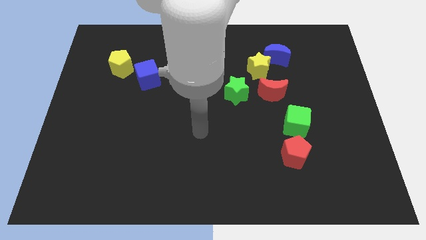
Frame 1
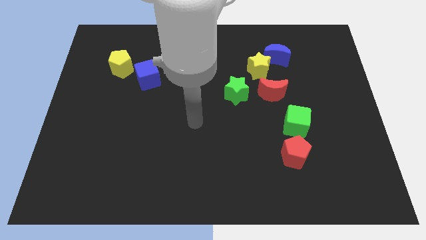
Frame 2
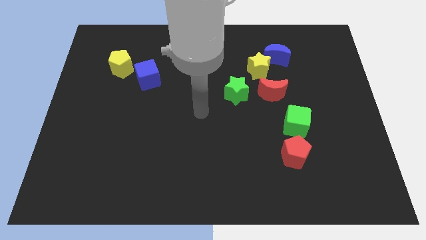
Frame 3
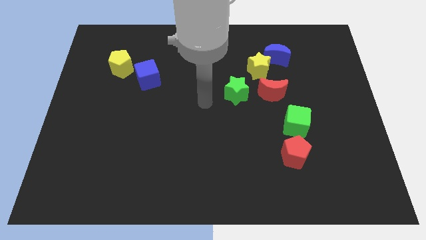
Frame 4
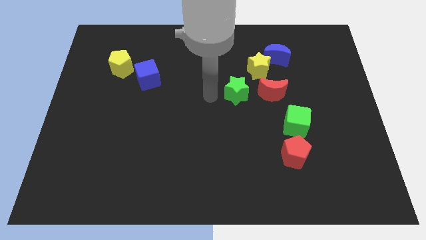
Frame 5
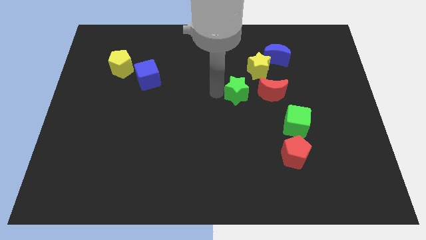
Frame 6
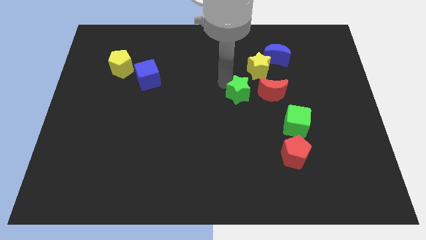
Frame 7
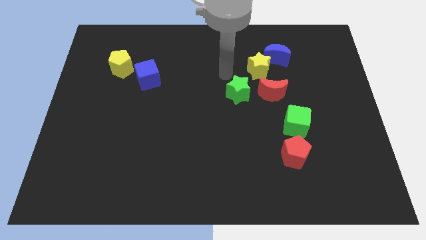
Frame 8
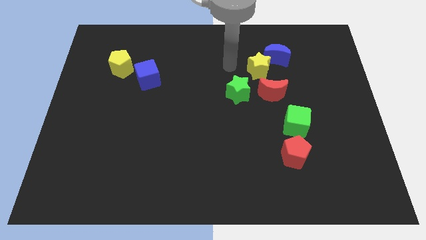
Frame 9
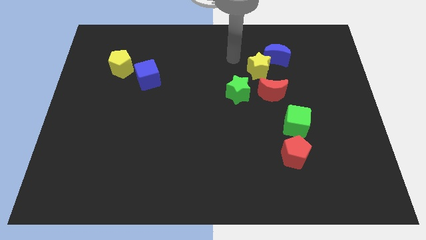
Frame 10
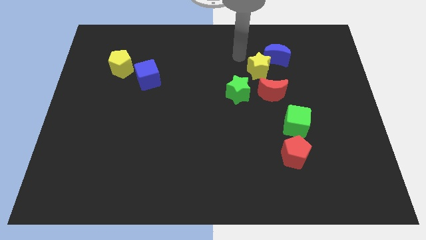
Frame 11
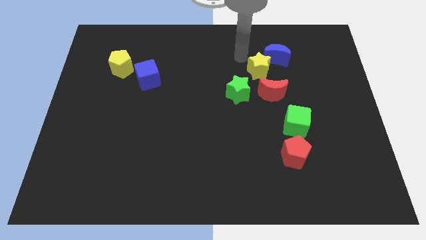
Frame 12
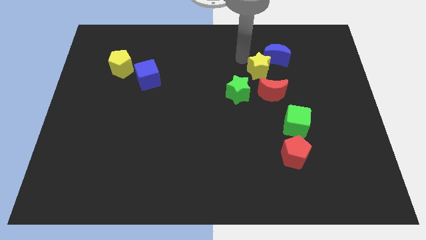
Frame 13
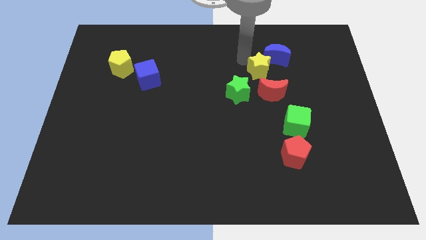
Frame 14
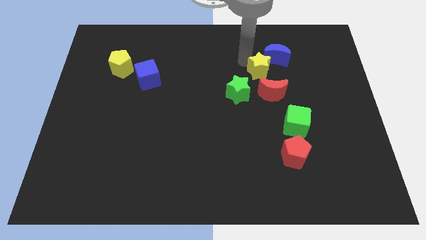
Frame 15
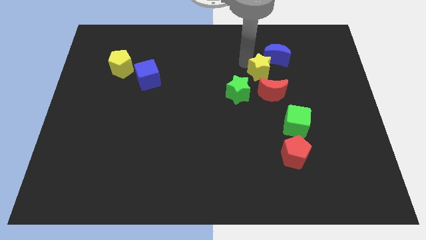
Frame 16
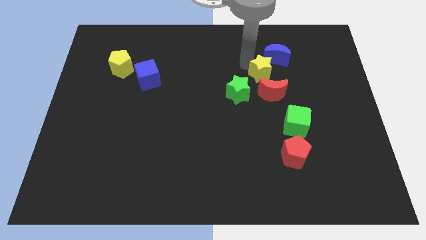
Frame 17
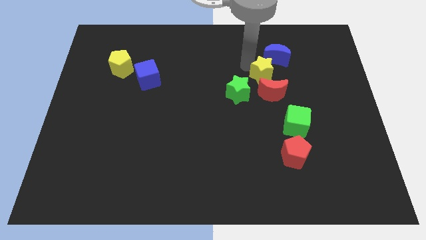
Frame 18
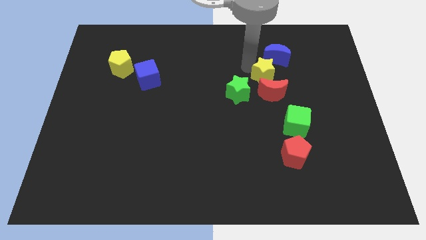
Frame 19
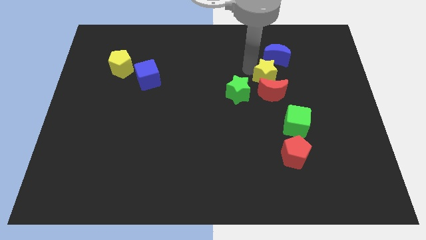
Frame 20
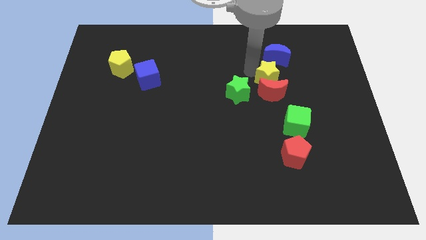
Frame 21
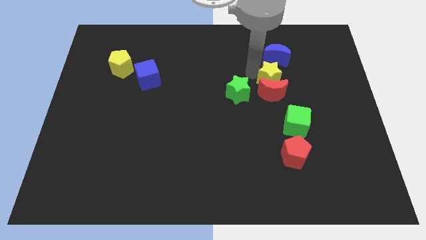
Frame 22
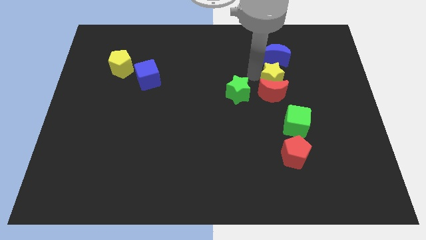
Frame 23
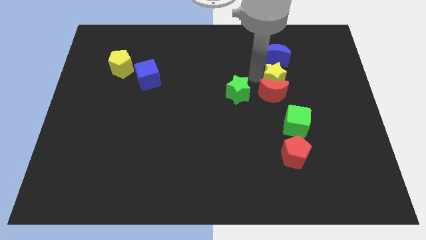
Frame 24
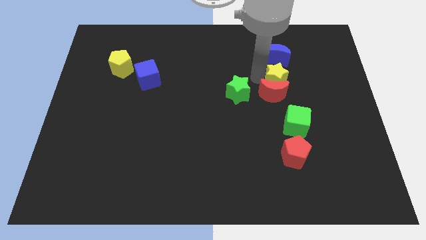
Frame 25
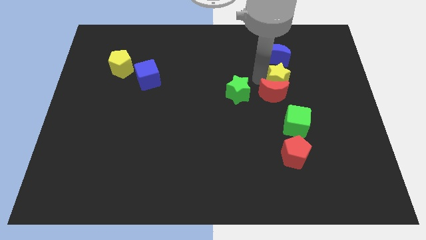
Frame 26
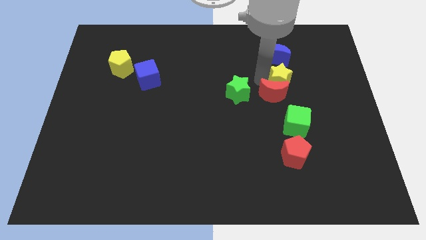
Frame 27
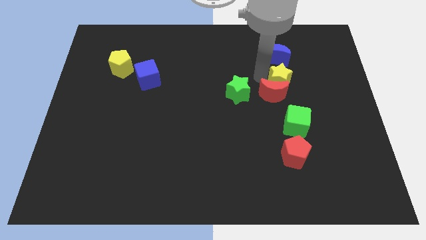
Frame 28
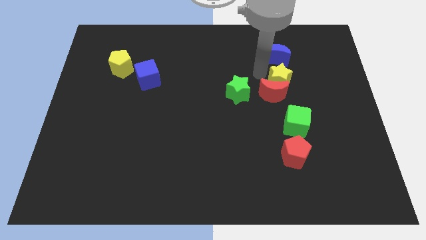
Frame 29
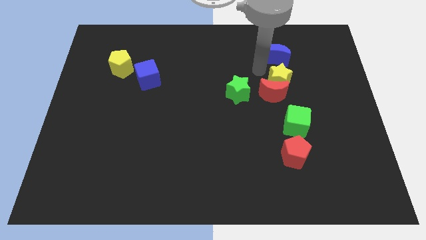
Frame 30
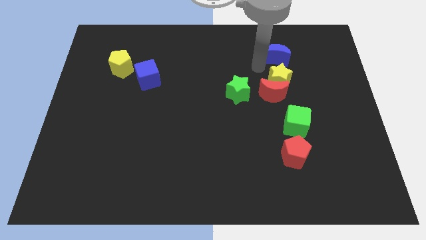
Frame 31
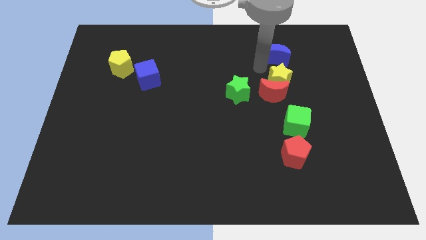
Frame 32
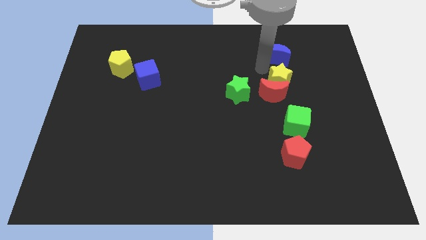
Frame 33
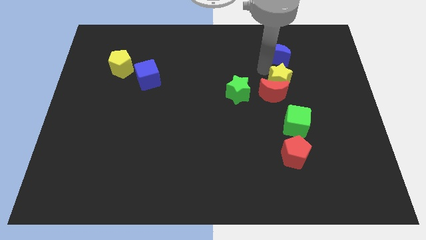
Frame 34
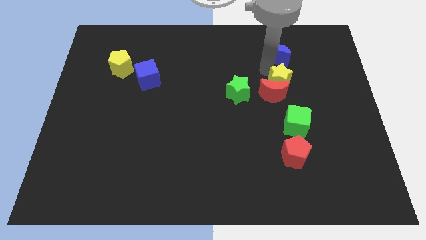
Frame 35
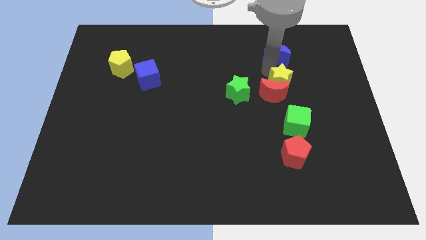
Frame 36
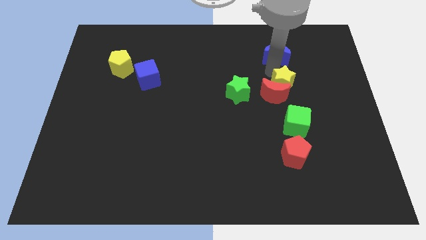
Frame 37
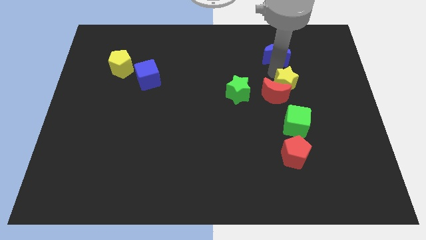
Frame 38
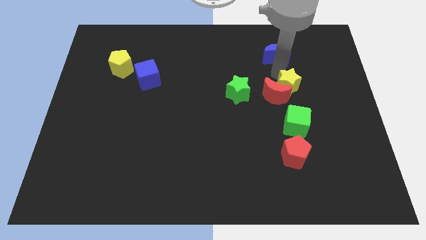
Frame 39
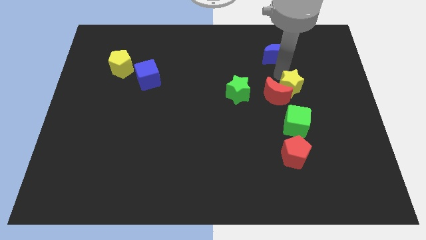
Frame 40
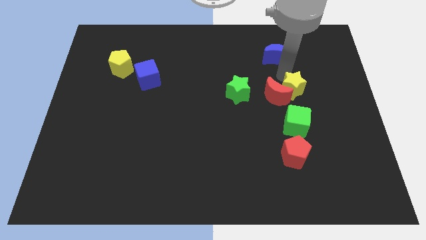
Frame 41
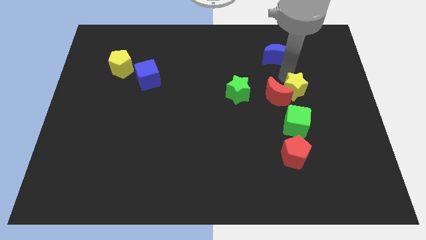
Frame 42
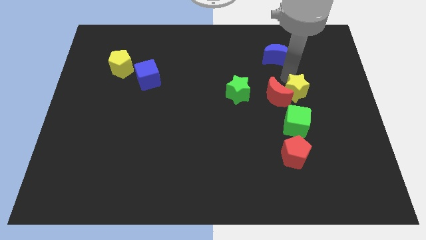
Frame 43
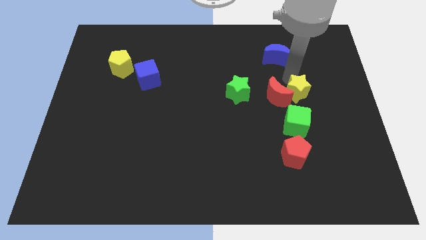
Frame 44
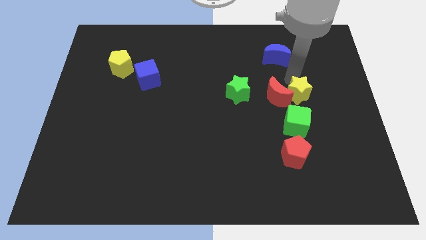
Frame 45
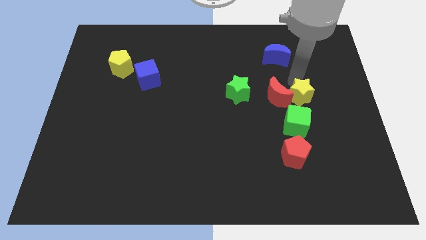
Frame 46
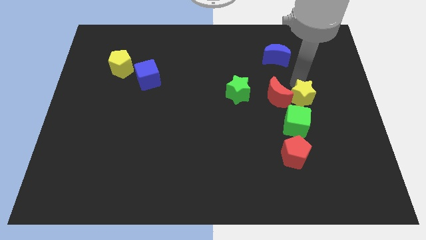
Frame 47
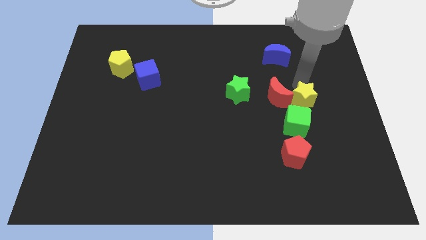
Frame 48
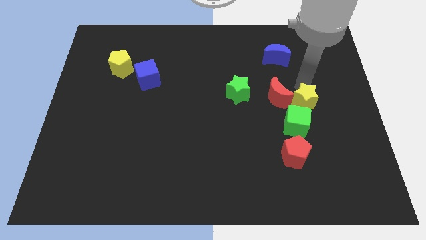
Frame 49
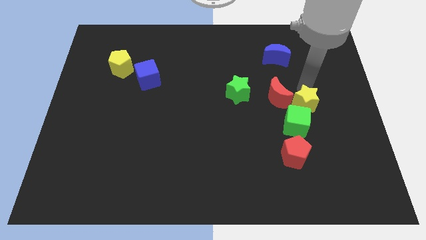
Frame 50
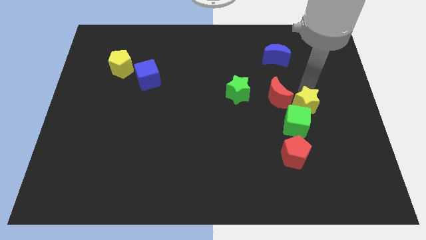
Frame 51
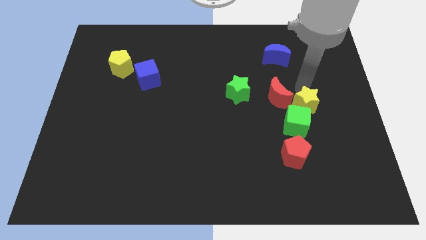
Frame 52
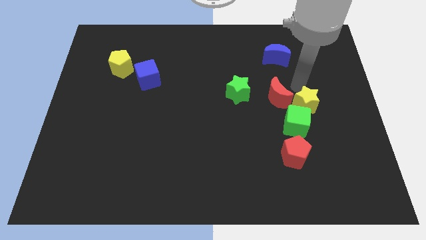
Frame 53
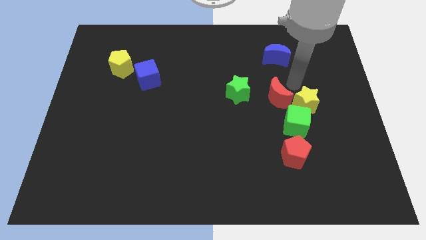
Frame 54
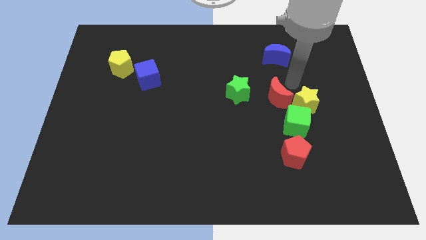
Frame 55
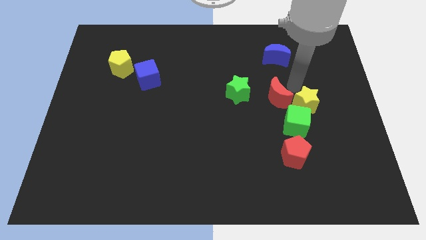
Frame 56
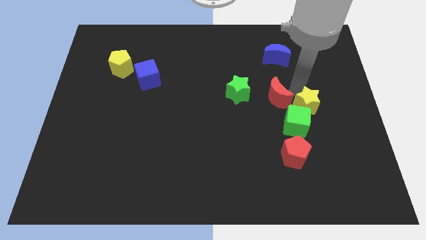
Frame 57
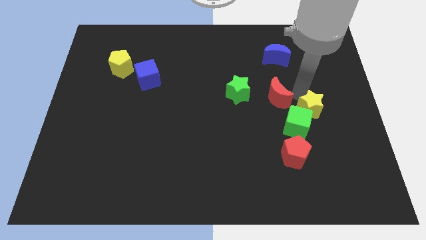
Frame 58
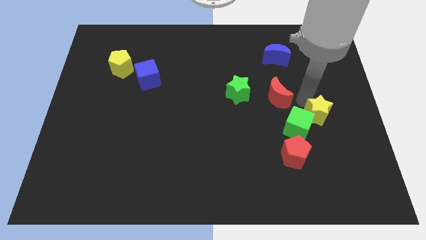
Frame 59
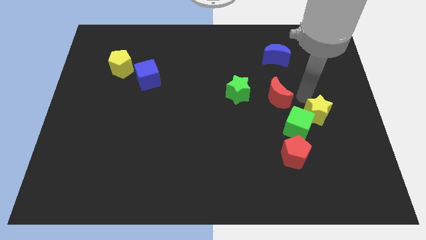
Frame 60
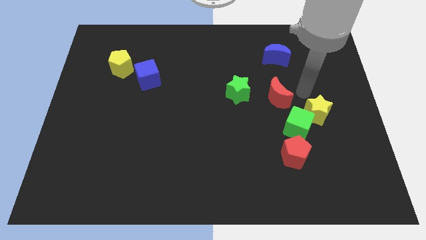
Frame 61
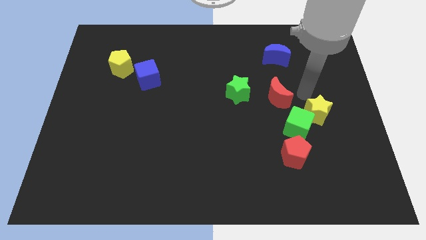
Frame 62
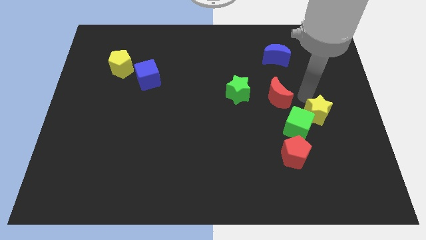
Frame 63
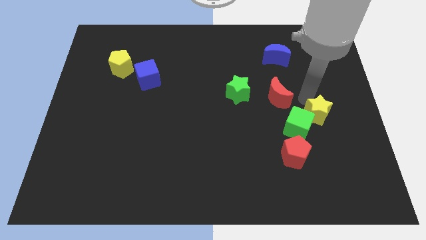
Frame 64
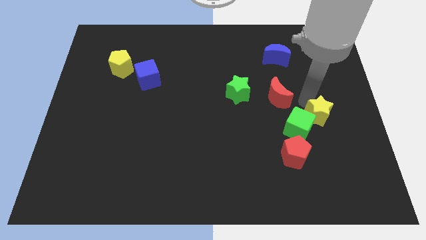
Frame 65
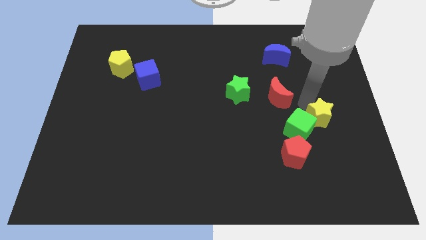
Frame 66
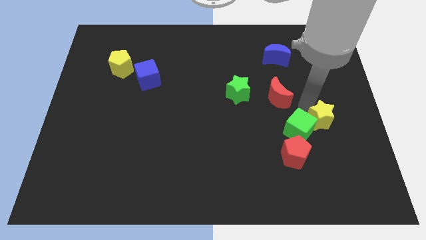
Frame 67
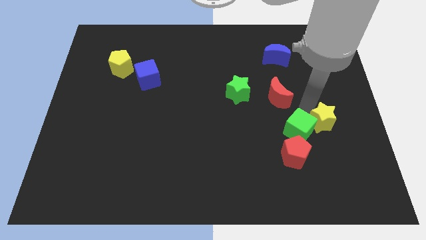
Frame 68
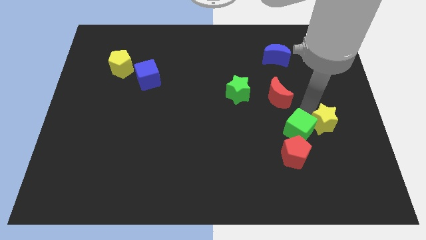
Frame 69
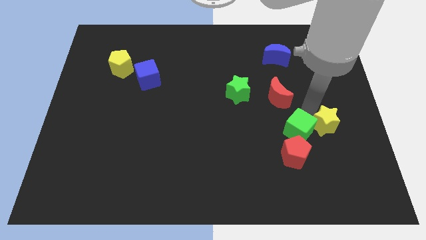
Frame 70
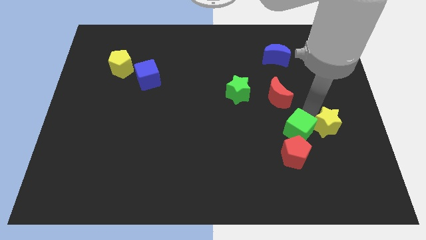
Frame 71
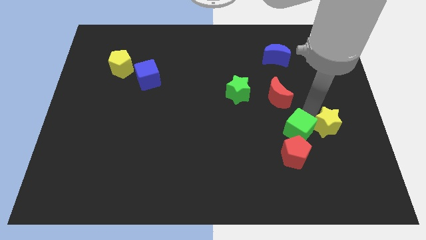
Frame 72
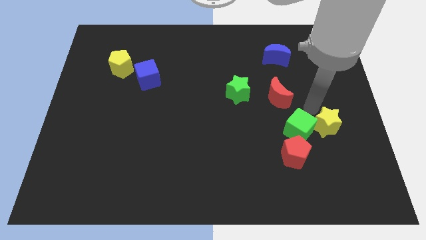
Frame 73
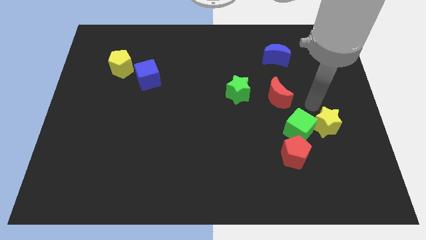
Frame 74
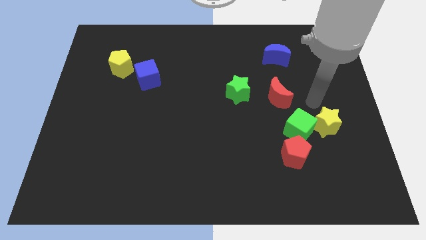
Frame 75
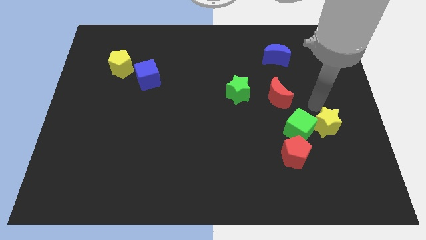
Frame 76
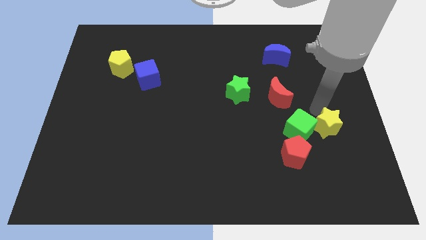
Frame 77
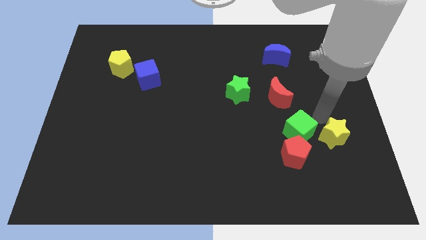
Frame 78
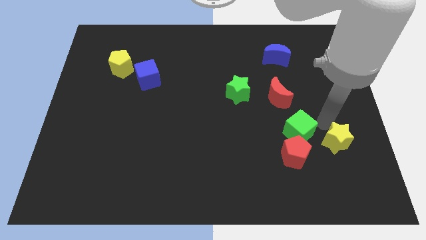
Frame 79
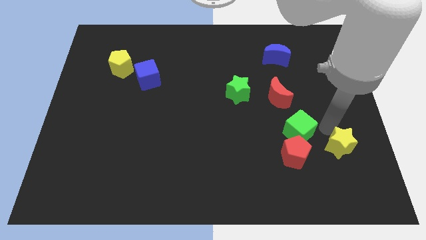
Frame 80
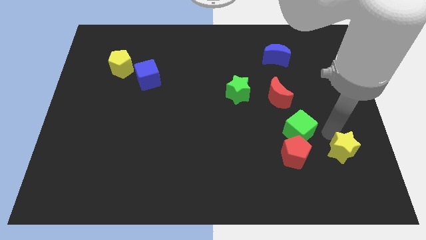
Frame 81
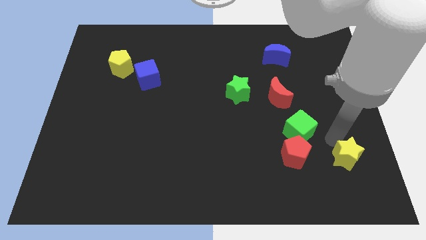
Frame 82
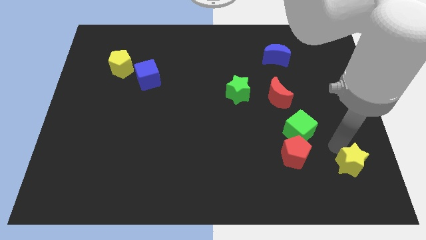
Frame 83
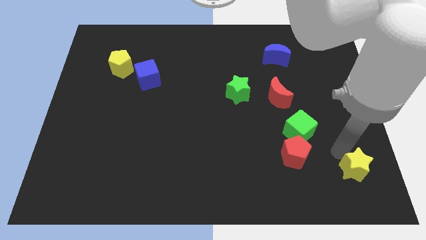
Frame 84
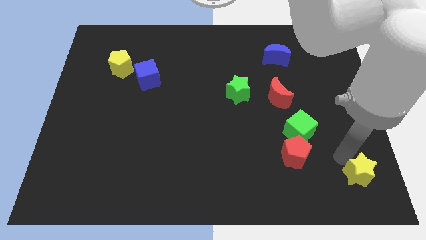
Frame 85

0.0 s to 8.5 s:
put the yellow star to the bottom right
